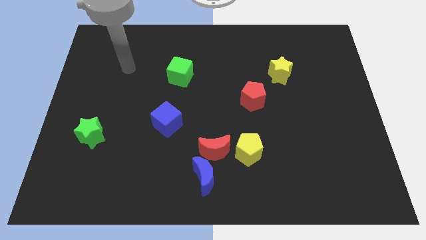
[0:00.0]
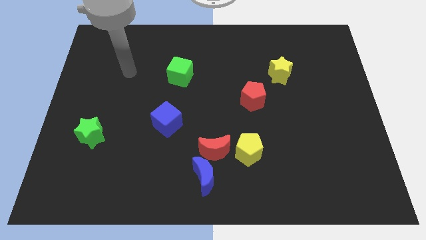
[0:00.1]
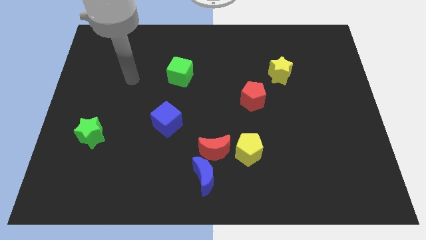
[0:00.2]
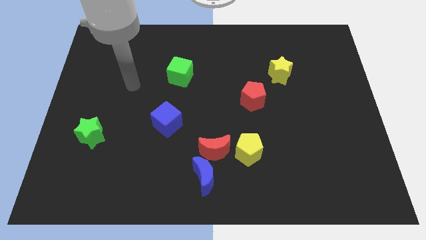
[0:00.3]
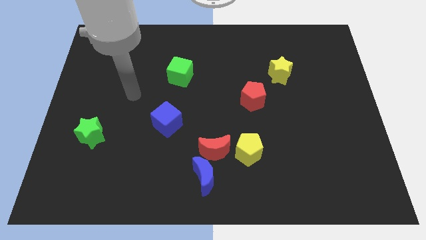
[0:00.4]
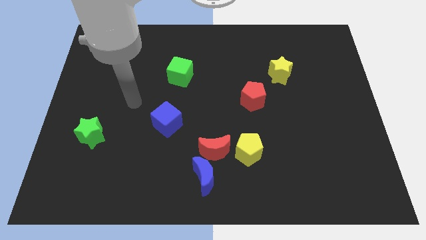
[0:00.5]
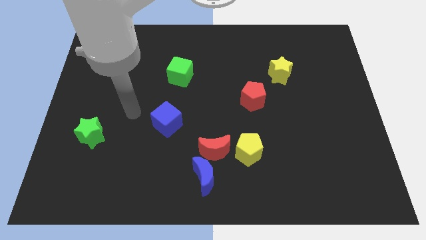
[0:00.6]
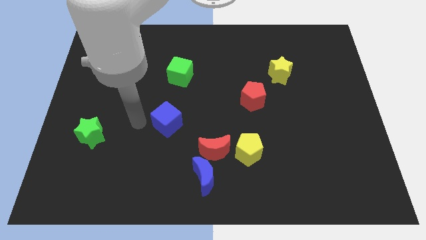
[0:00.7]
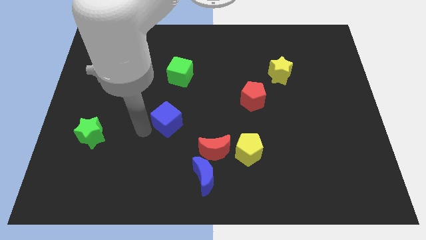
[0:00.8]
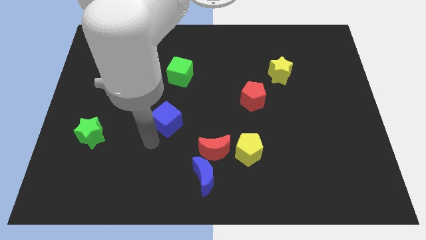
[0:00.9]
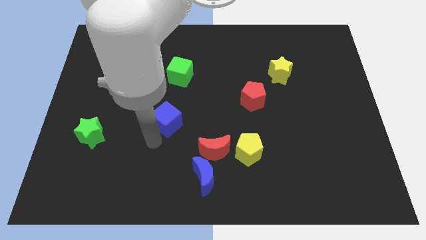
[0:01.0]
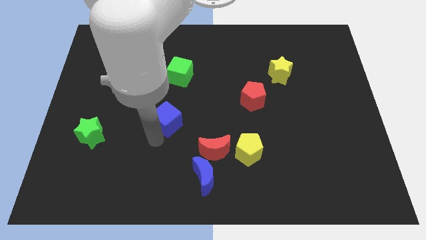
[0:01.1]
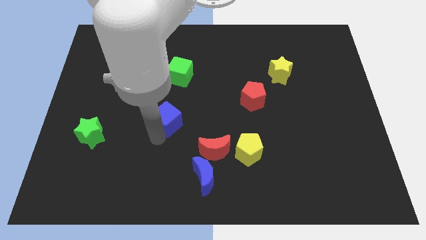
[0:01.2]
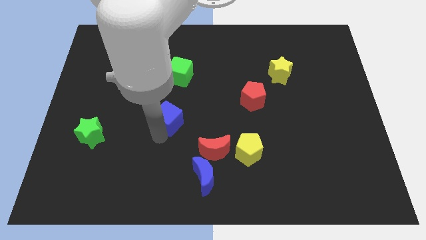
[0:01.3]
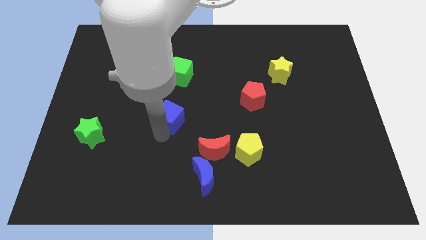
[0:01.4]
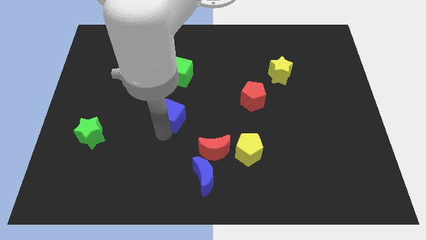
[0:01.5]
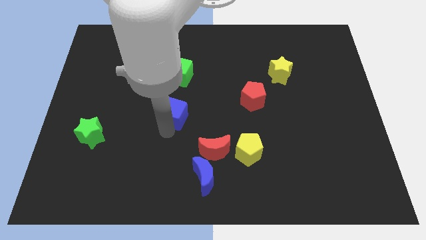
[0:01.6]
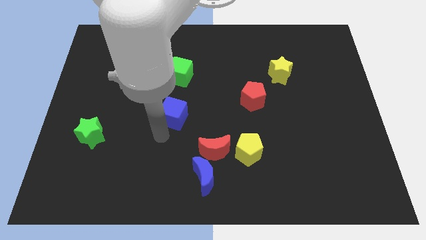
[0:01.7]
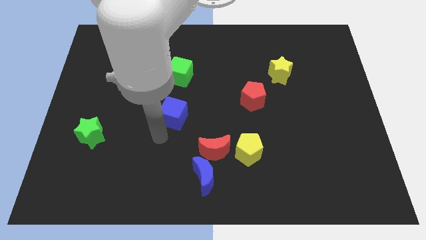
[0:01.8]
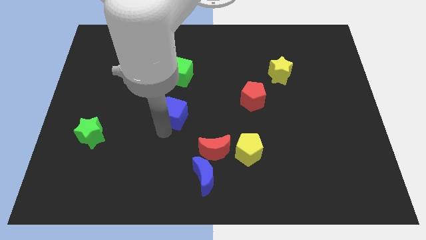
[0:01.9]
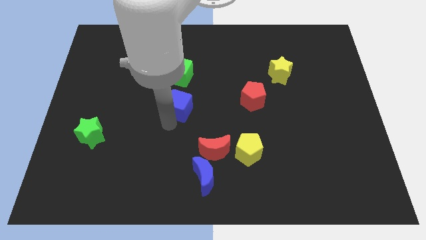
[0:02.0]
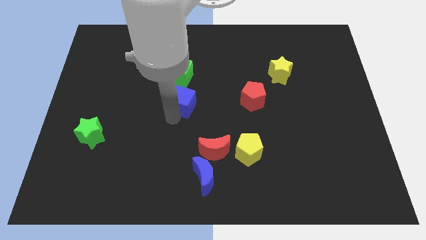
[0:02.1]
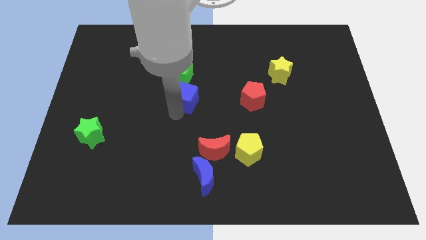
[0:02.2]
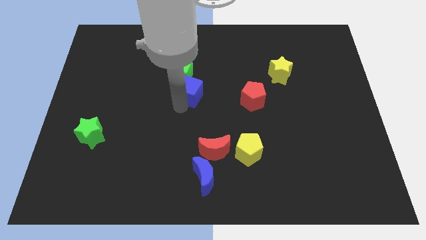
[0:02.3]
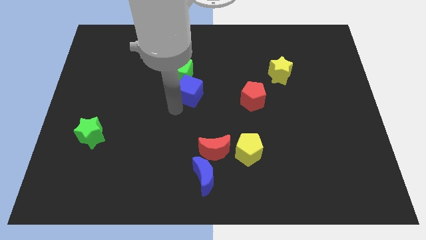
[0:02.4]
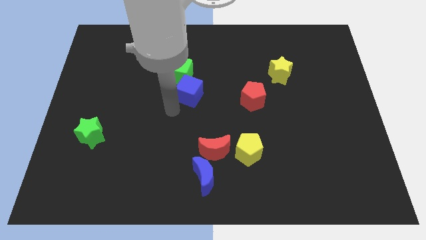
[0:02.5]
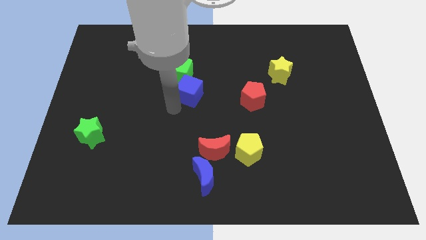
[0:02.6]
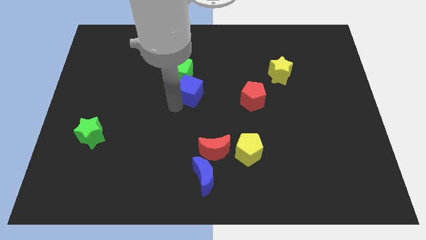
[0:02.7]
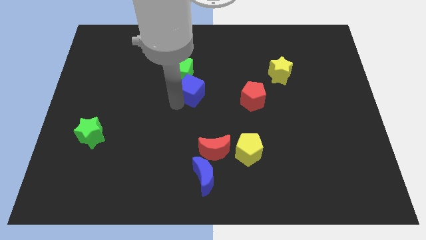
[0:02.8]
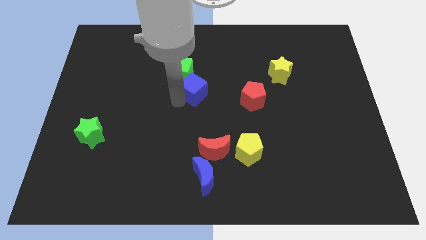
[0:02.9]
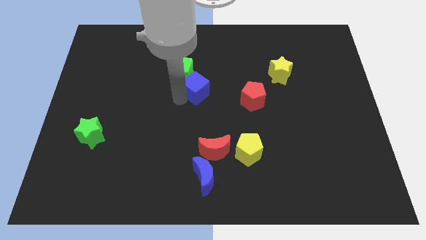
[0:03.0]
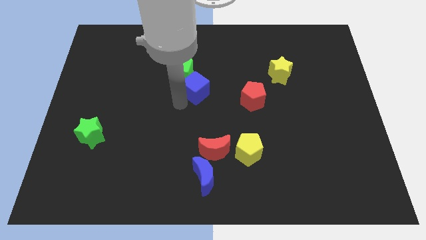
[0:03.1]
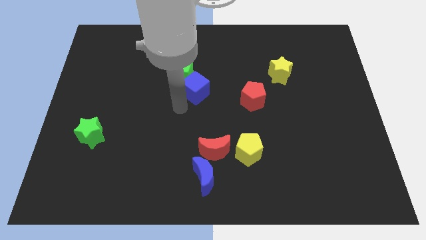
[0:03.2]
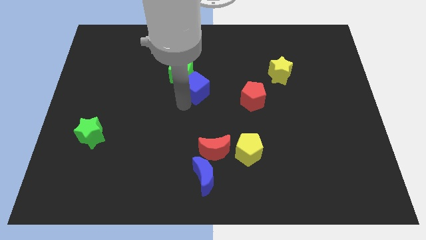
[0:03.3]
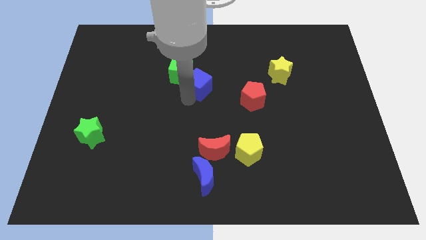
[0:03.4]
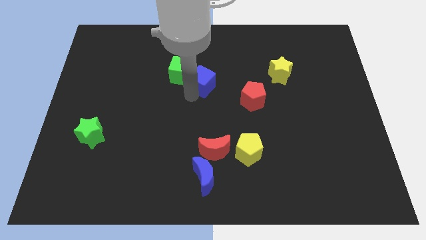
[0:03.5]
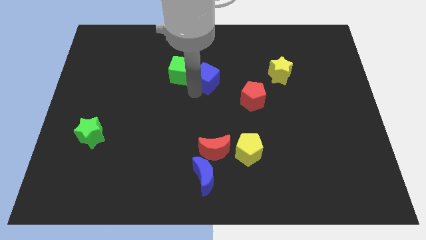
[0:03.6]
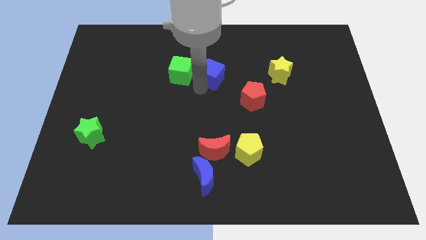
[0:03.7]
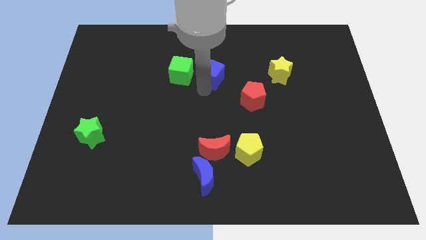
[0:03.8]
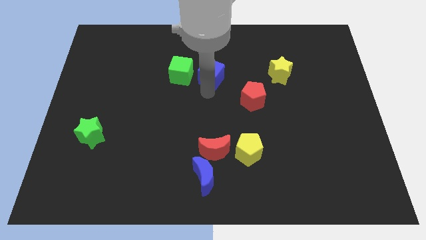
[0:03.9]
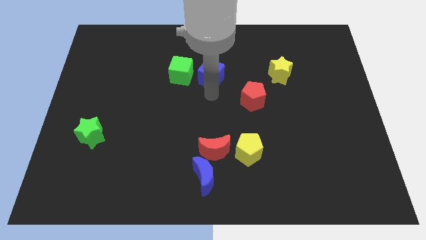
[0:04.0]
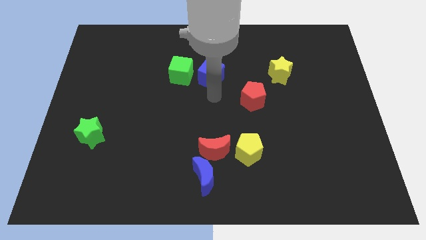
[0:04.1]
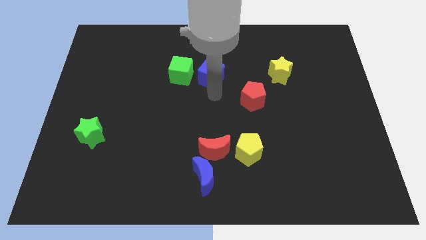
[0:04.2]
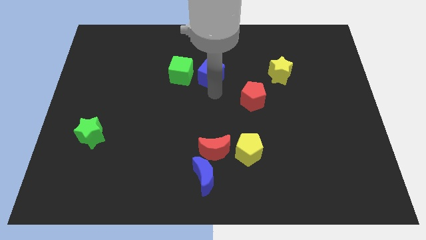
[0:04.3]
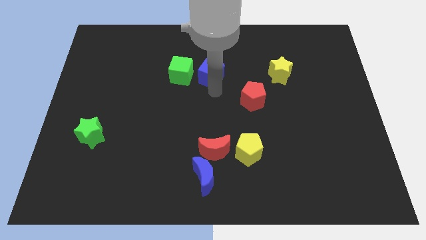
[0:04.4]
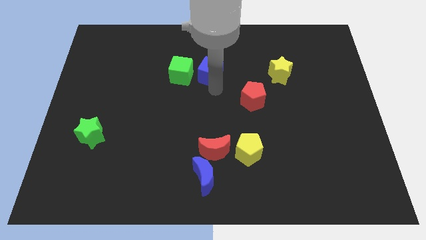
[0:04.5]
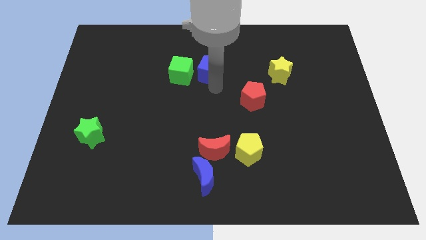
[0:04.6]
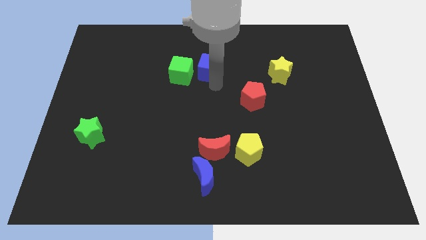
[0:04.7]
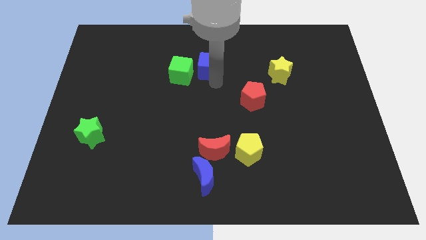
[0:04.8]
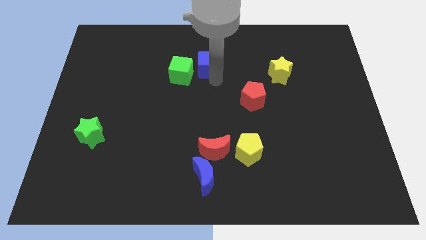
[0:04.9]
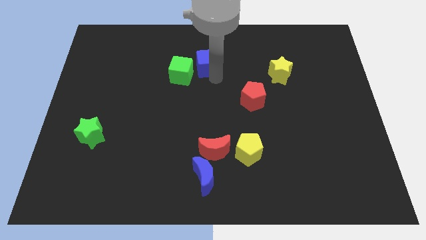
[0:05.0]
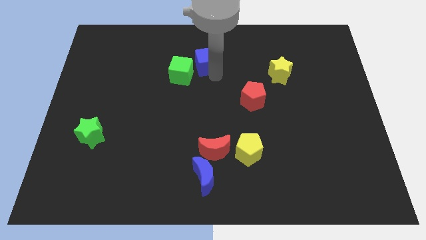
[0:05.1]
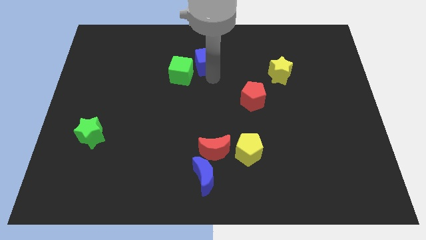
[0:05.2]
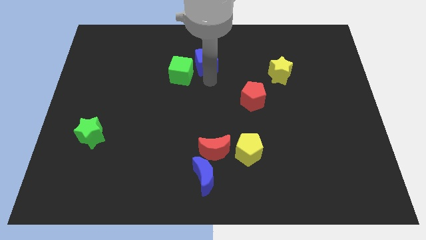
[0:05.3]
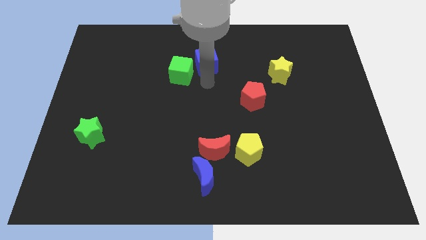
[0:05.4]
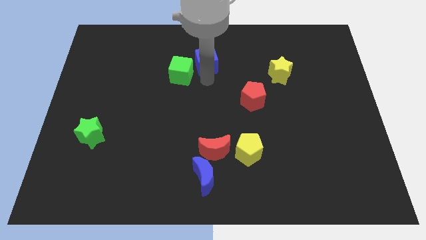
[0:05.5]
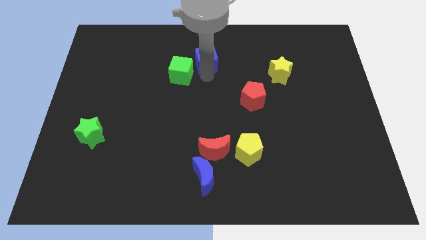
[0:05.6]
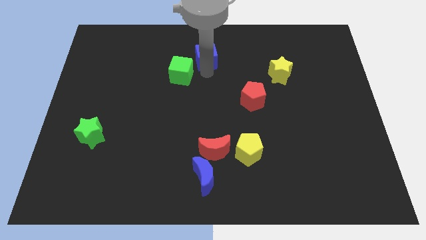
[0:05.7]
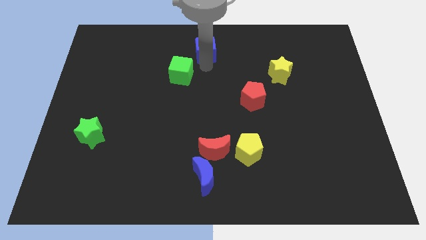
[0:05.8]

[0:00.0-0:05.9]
put the blue cube to the towards your base
